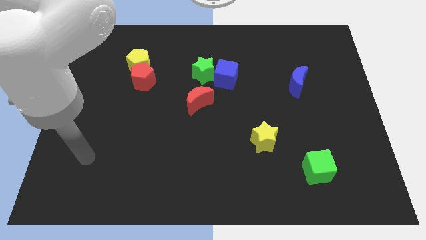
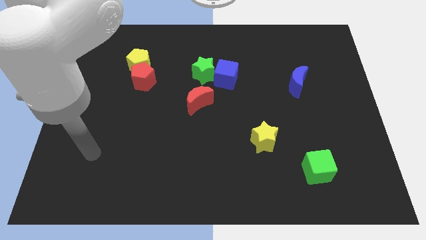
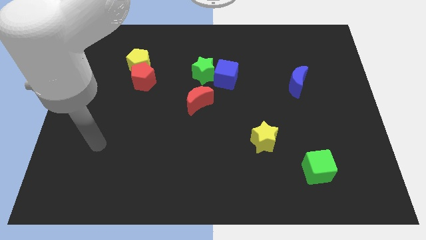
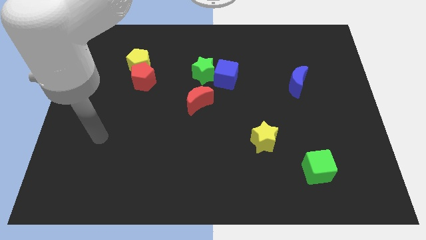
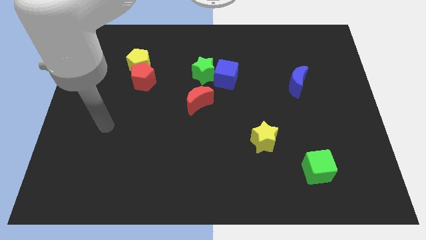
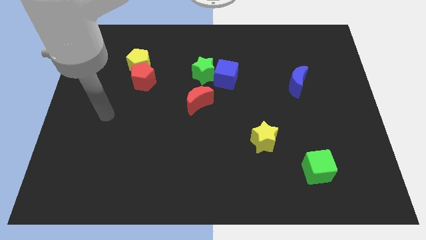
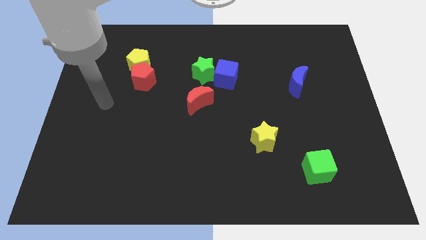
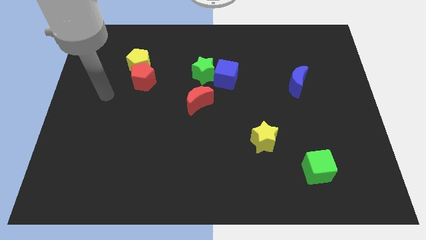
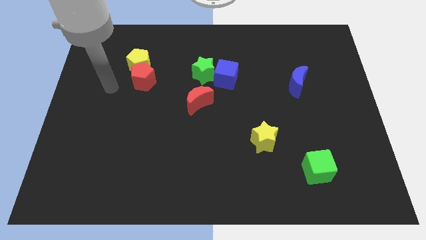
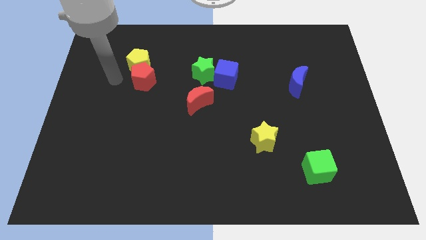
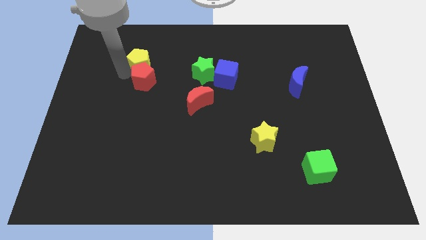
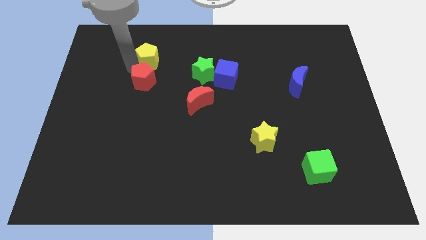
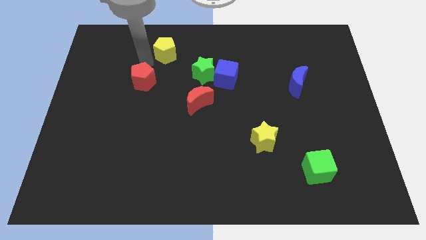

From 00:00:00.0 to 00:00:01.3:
separate the red pentagon from the yellow pentagon

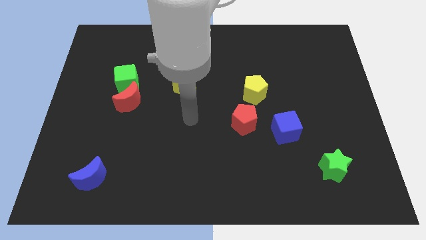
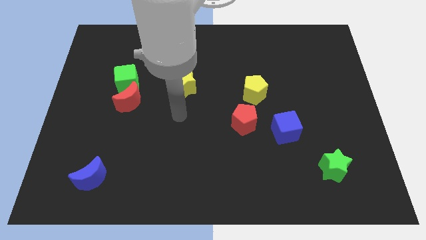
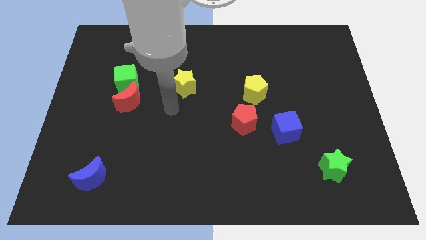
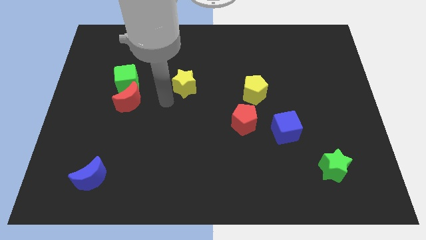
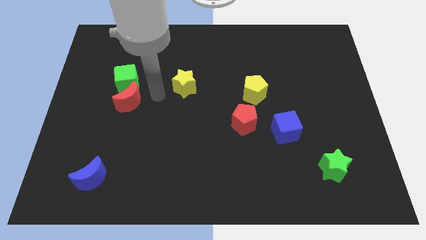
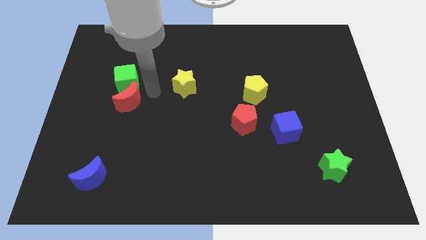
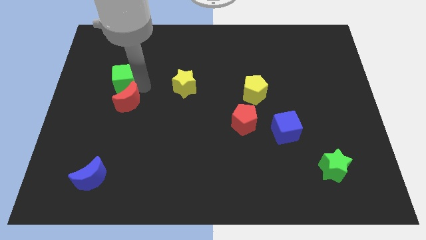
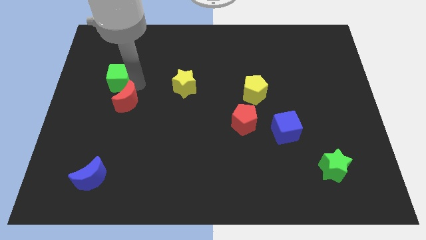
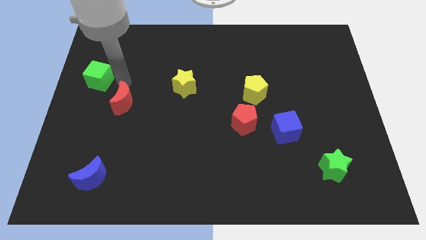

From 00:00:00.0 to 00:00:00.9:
move the red moon away from the green cube

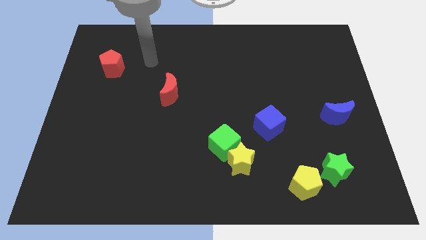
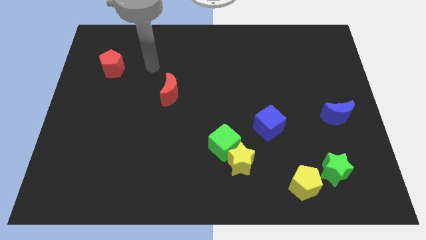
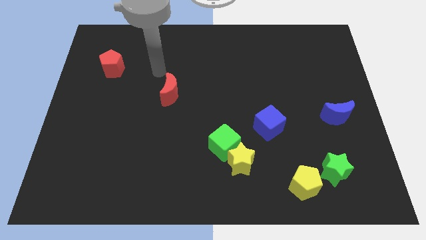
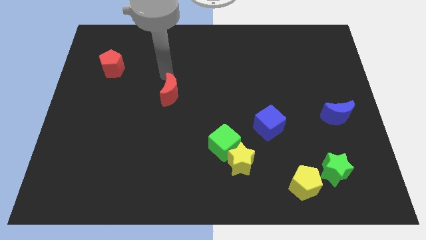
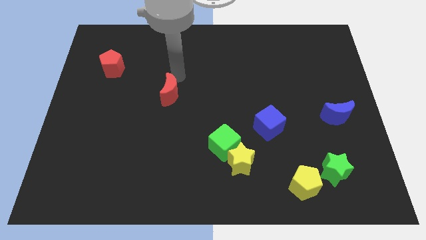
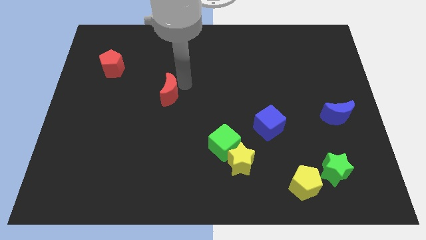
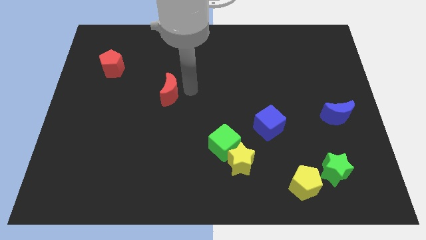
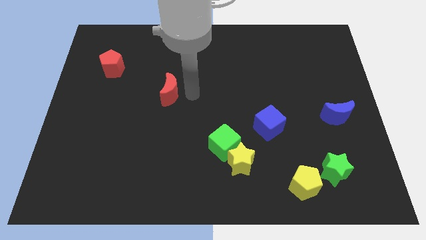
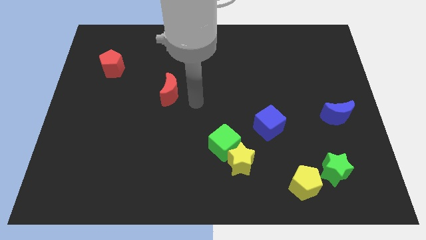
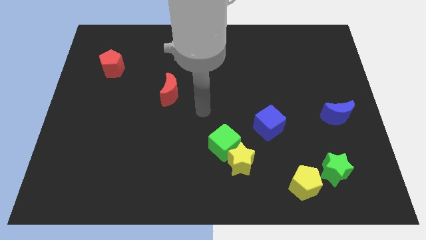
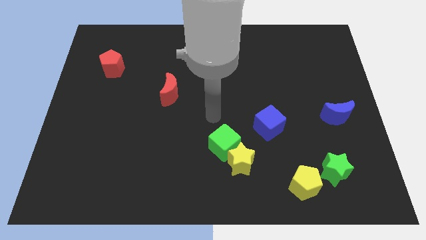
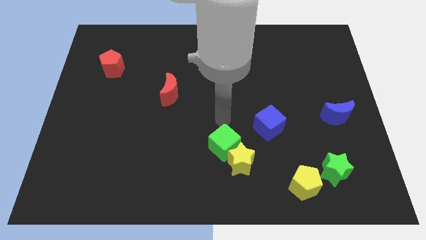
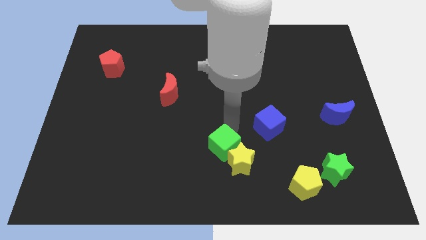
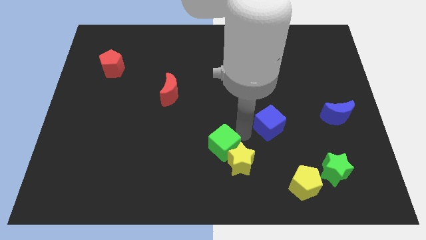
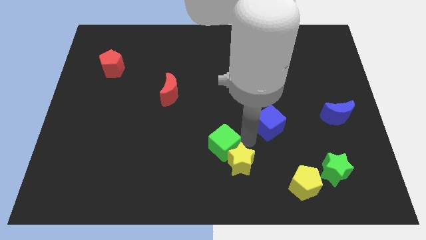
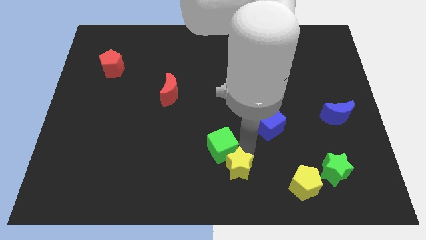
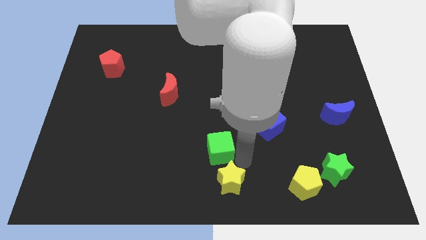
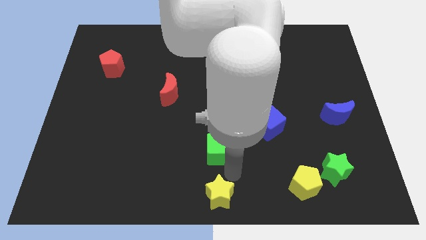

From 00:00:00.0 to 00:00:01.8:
move the green cube away from the yellow star

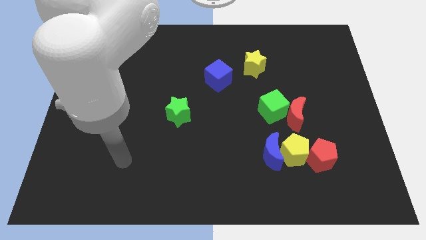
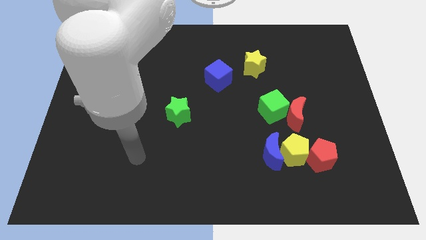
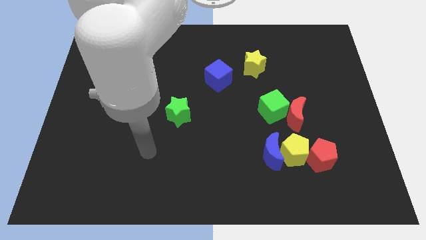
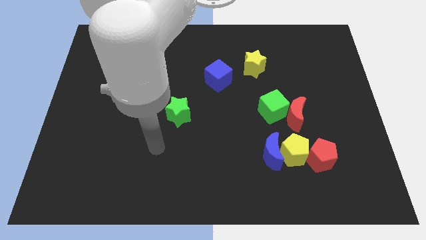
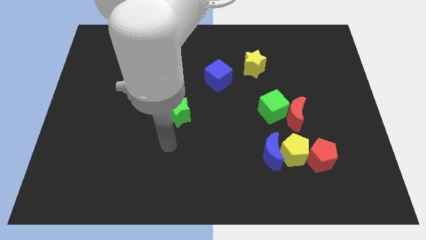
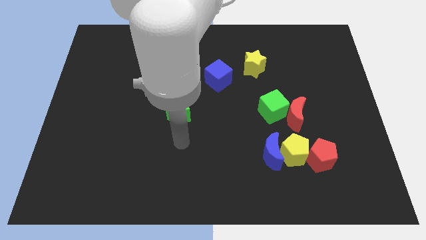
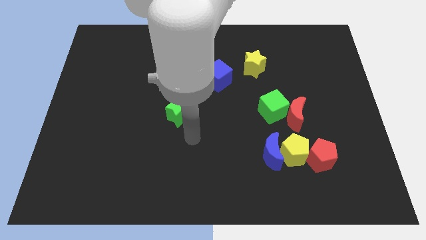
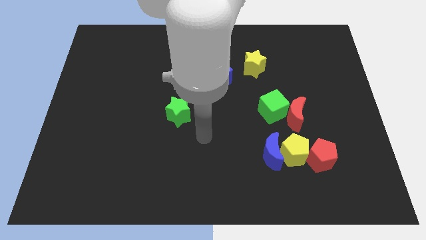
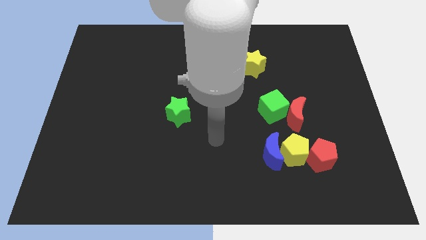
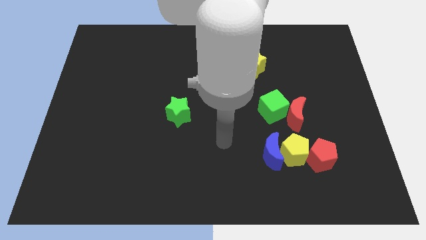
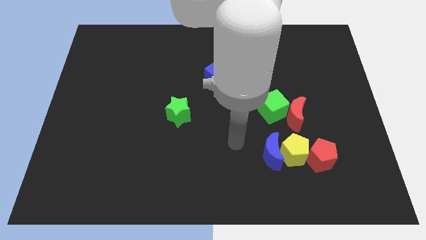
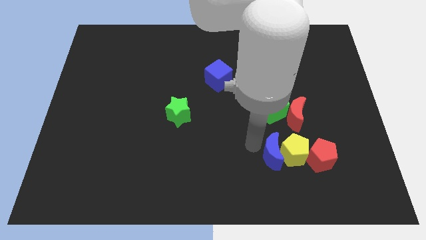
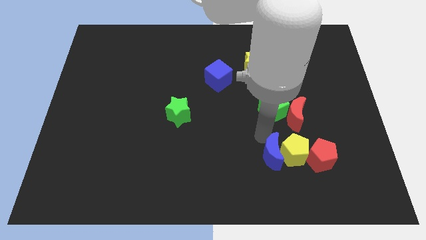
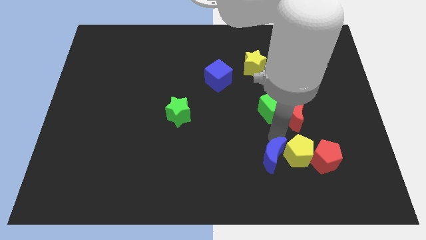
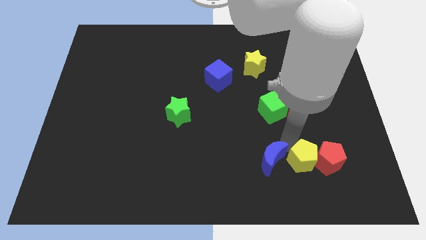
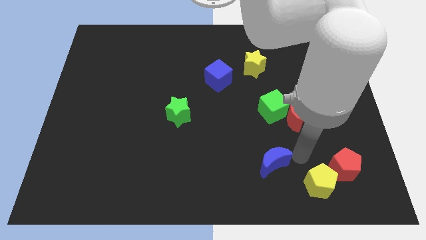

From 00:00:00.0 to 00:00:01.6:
move the blue moon away from the yellow pentagon

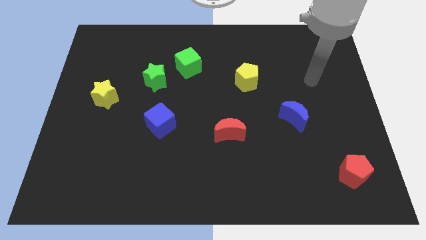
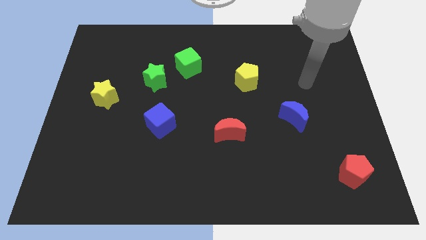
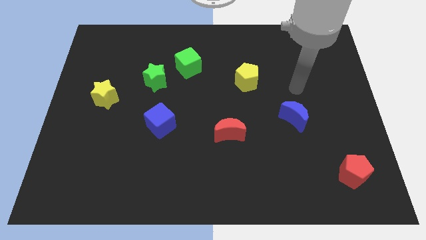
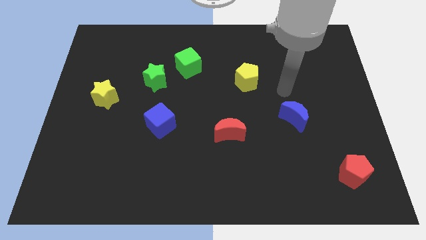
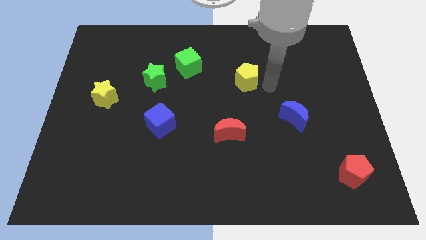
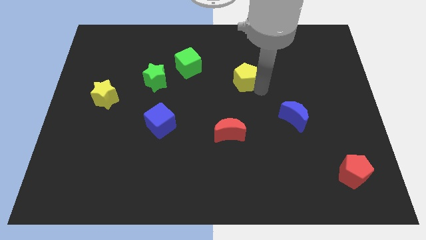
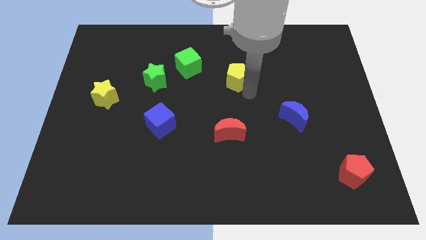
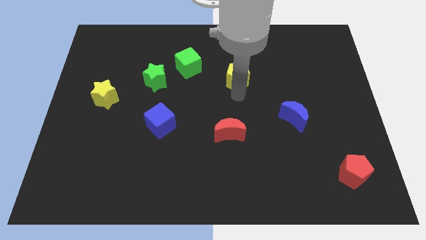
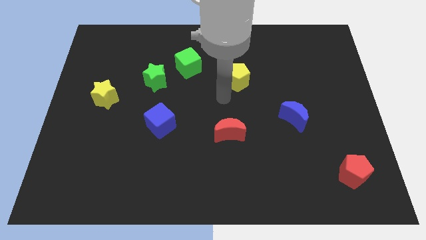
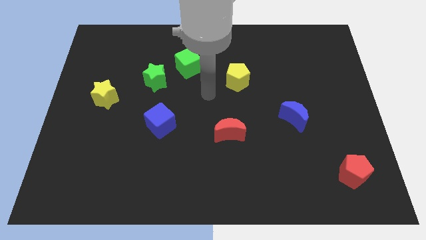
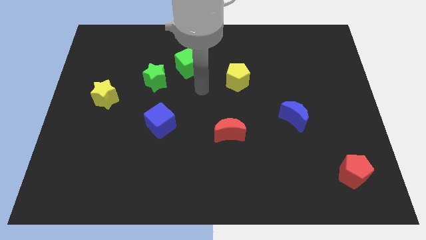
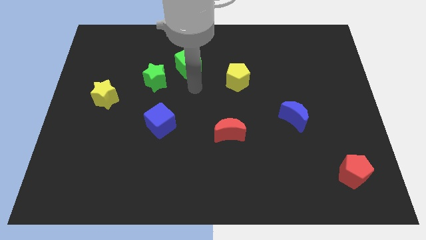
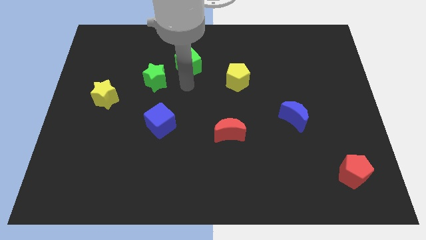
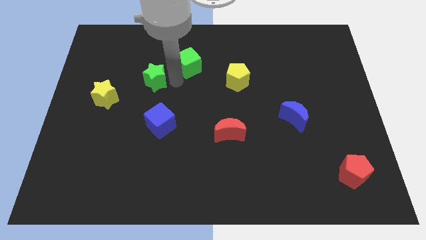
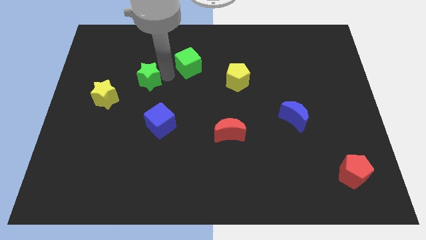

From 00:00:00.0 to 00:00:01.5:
separate the green cube from the green star

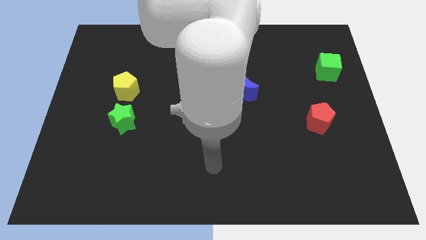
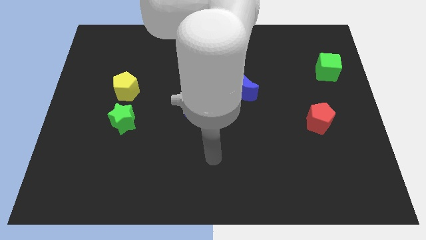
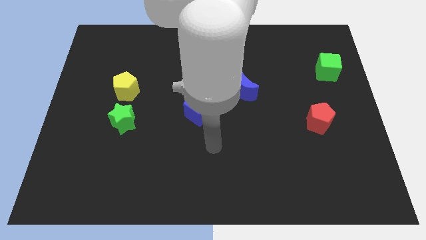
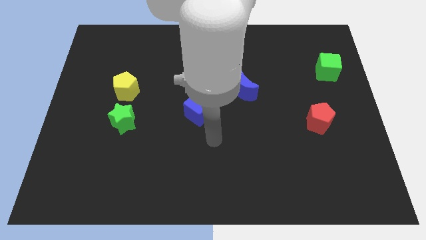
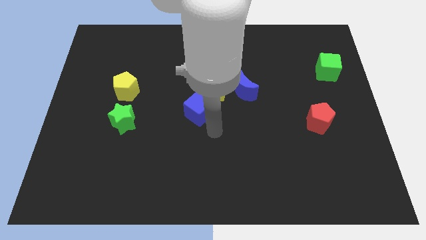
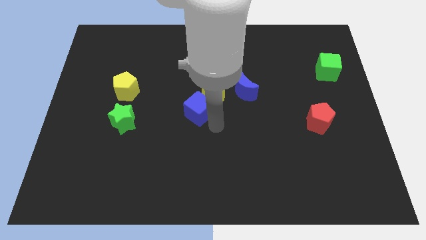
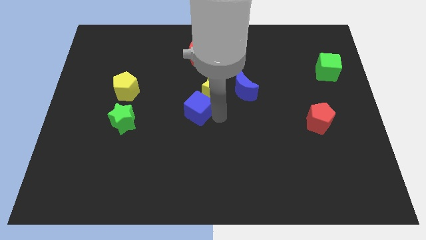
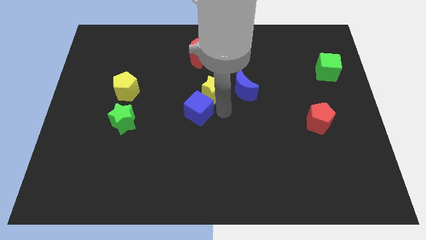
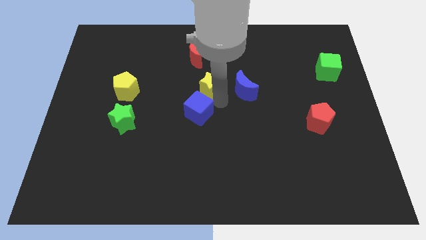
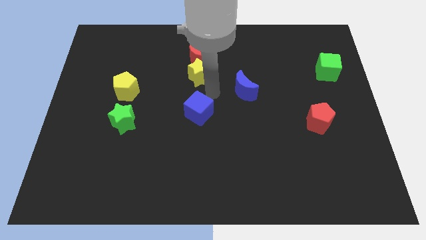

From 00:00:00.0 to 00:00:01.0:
pull the blue cube apart from the yellow star

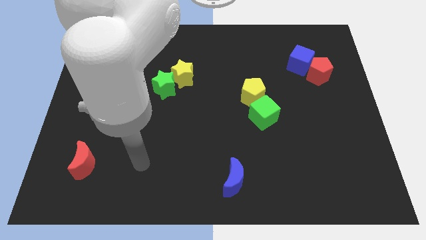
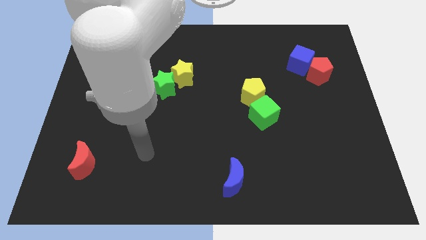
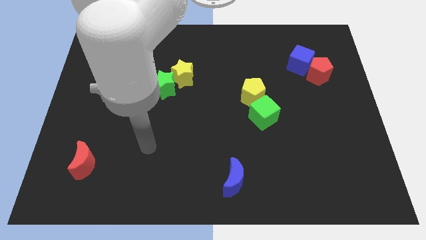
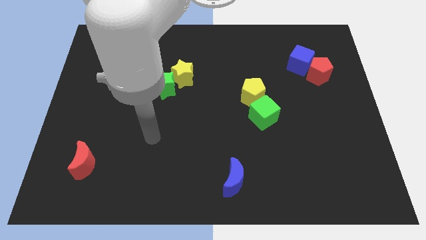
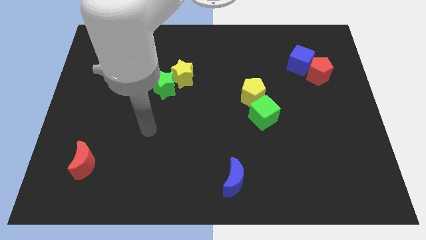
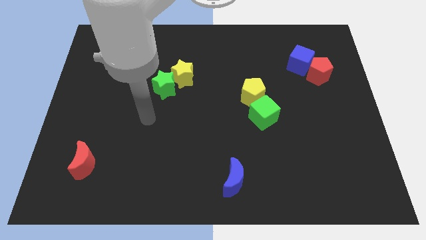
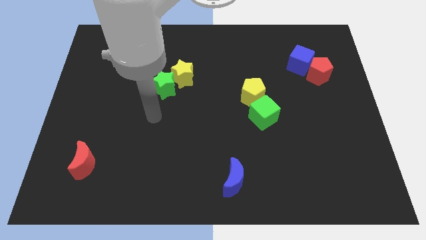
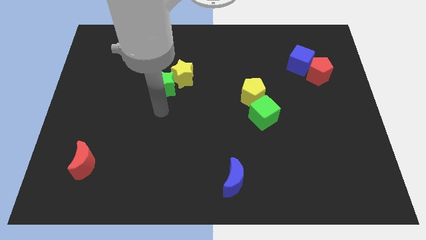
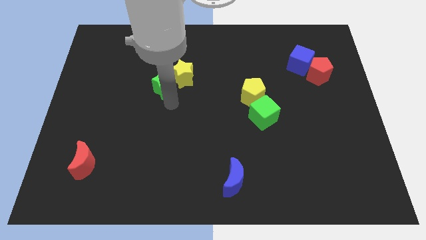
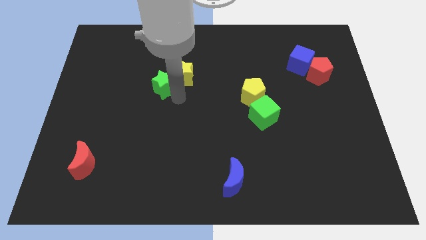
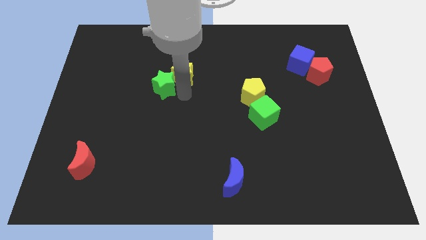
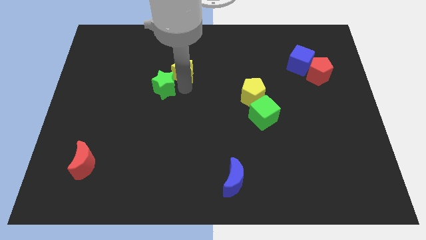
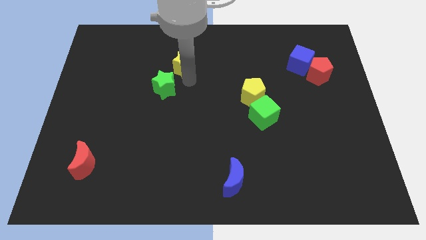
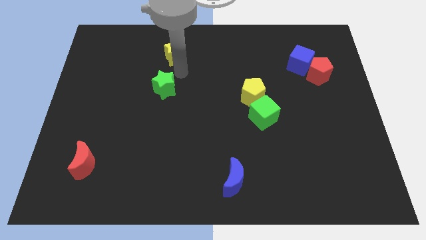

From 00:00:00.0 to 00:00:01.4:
move the green star away from the yellow star
